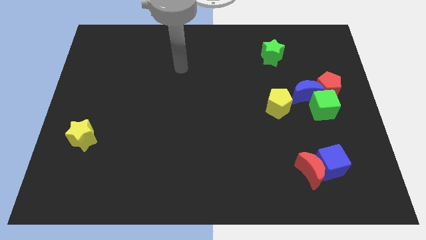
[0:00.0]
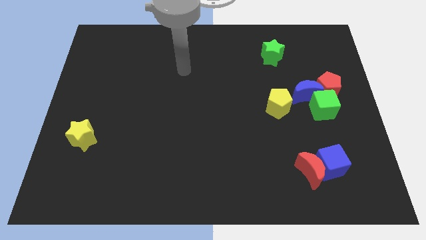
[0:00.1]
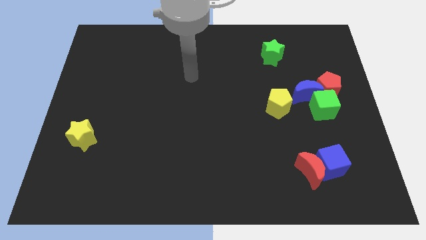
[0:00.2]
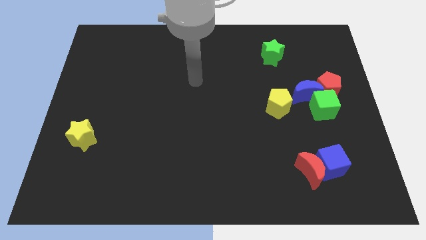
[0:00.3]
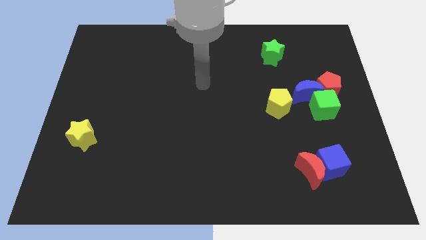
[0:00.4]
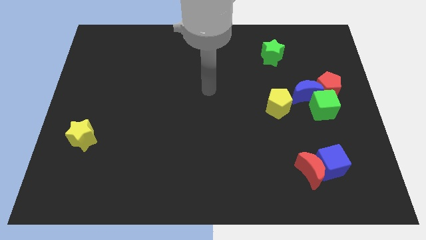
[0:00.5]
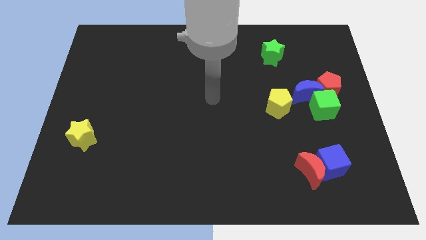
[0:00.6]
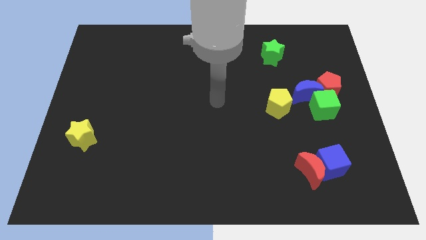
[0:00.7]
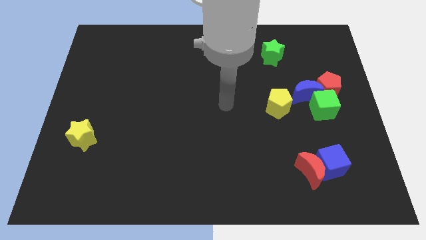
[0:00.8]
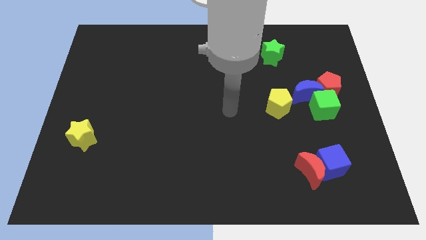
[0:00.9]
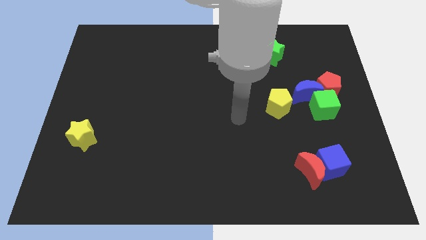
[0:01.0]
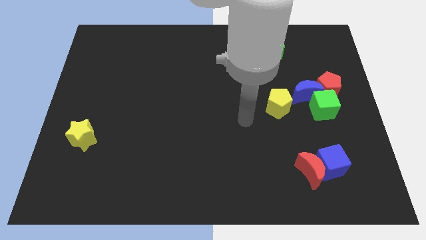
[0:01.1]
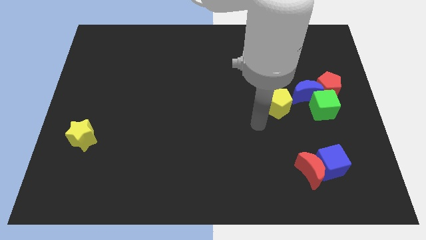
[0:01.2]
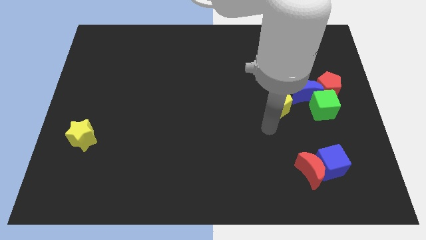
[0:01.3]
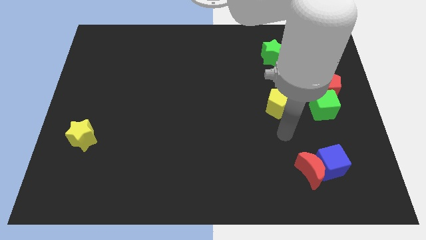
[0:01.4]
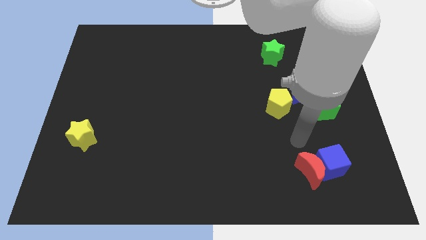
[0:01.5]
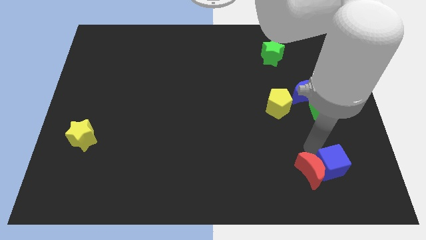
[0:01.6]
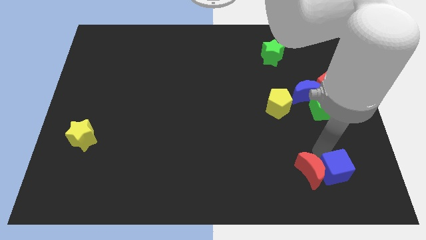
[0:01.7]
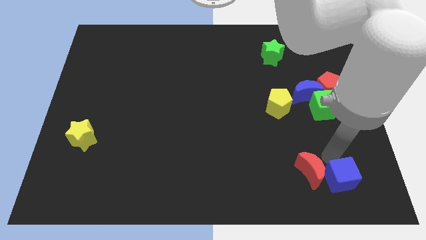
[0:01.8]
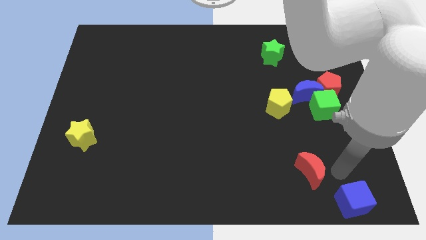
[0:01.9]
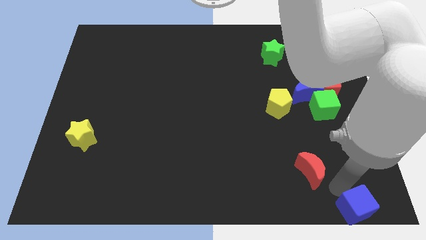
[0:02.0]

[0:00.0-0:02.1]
move the red moon away from the blue cube

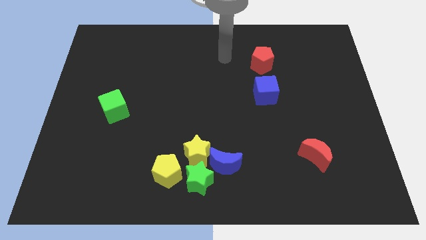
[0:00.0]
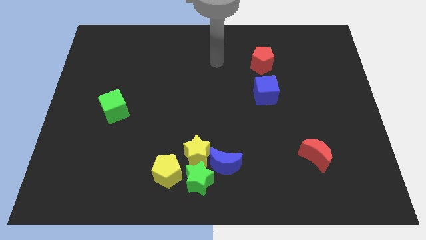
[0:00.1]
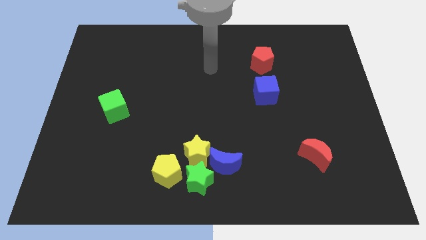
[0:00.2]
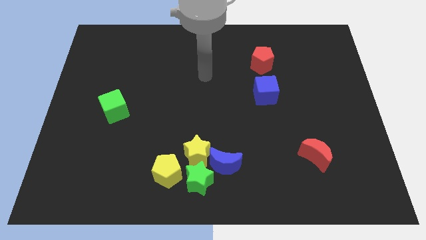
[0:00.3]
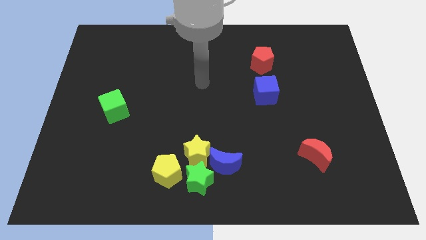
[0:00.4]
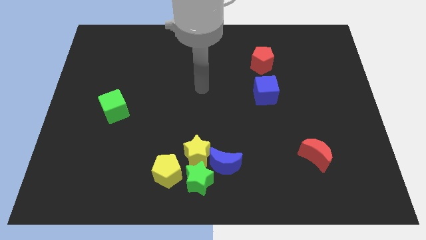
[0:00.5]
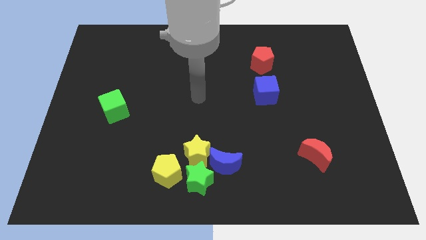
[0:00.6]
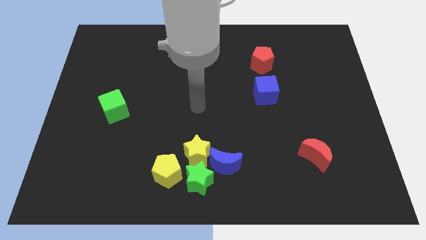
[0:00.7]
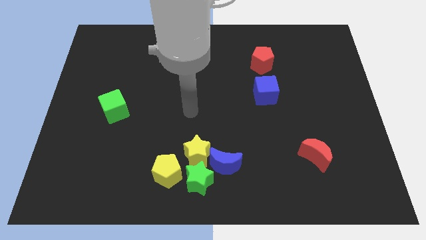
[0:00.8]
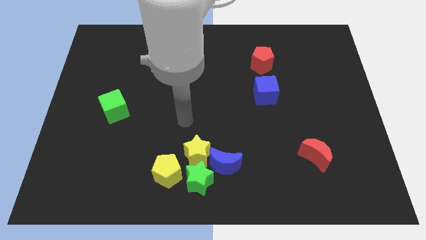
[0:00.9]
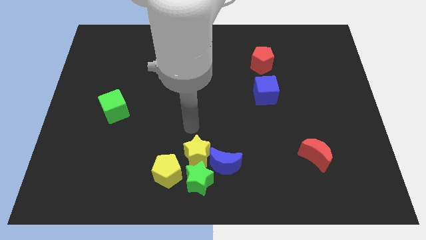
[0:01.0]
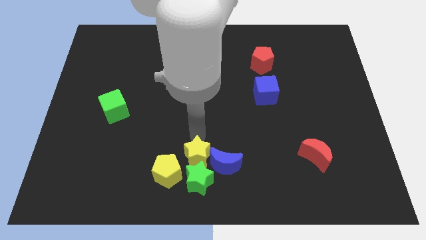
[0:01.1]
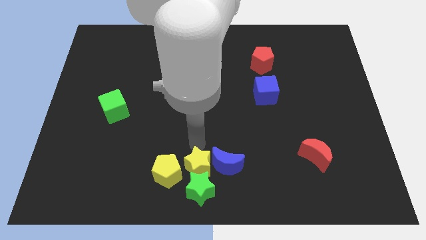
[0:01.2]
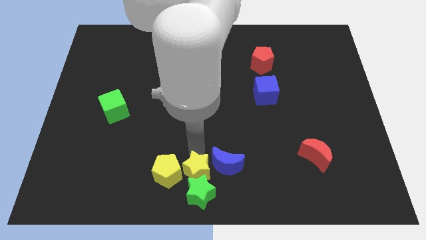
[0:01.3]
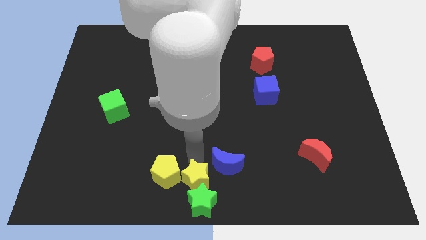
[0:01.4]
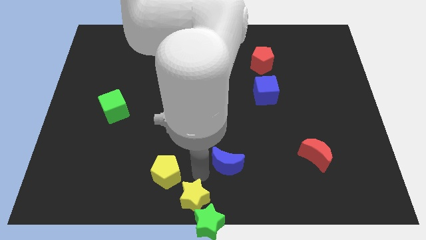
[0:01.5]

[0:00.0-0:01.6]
separate the blue moon from the yellow star and green star

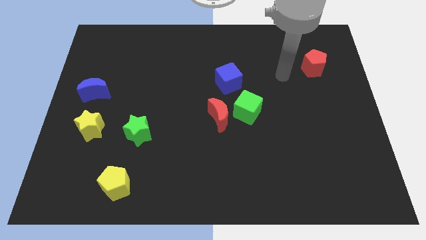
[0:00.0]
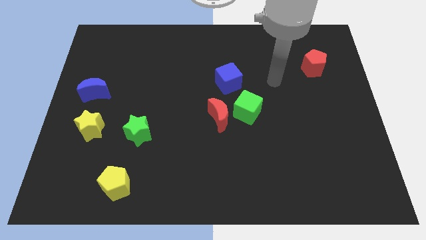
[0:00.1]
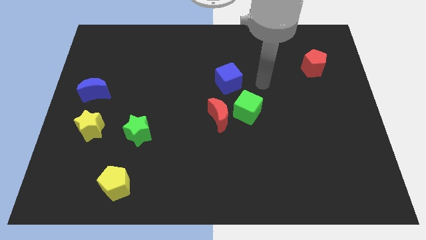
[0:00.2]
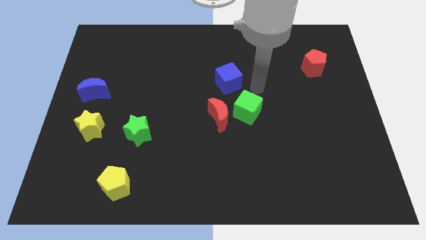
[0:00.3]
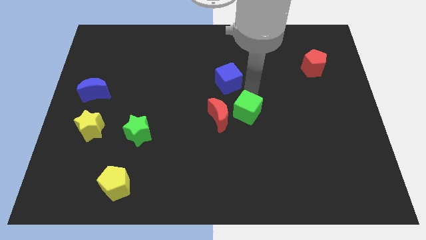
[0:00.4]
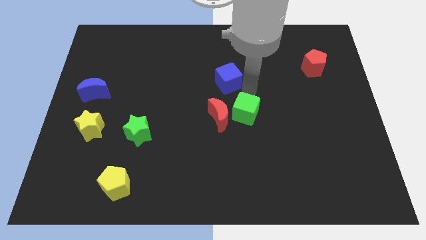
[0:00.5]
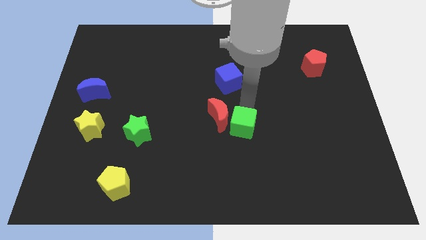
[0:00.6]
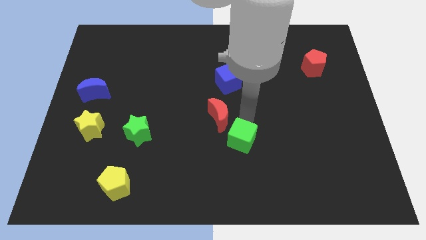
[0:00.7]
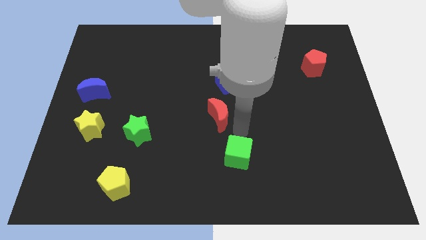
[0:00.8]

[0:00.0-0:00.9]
separate the red moon from the green cube

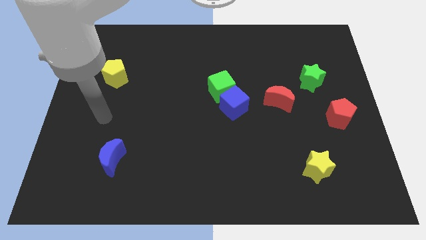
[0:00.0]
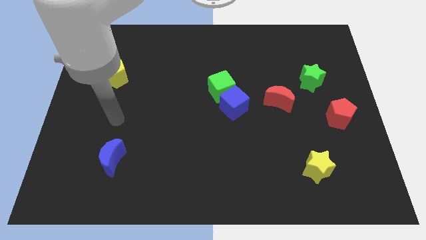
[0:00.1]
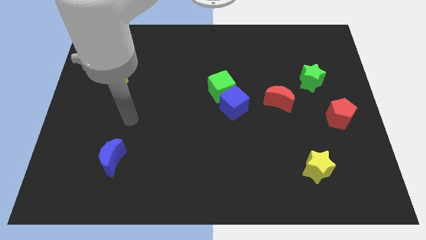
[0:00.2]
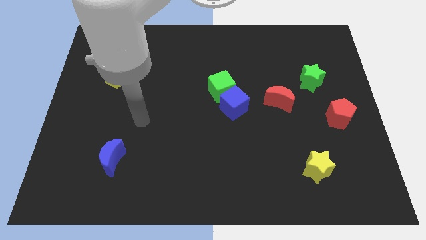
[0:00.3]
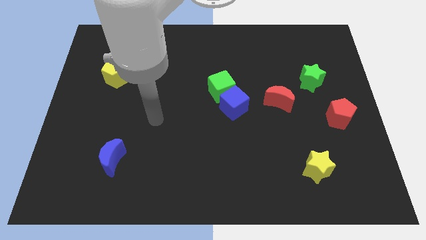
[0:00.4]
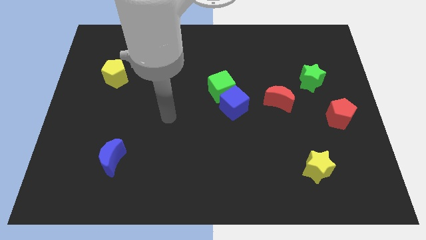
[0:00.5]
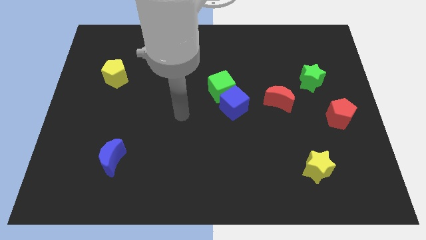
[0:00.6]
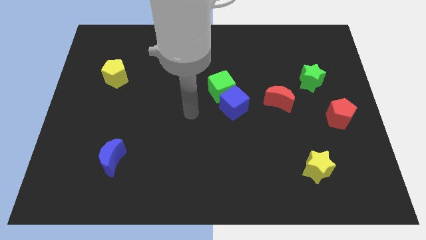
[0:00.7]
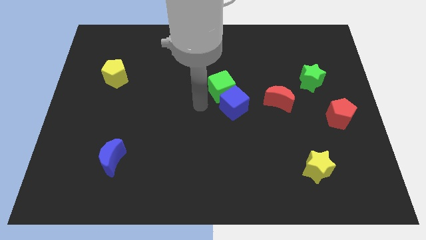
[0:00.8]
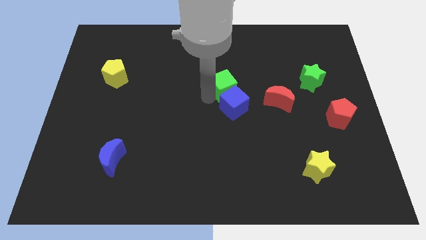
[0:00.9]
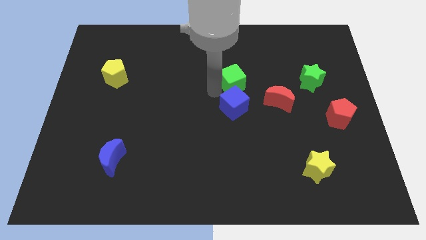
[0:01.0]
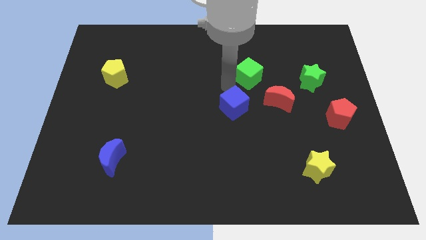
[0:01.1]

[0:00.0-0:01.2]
separate the blue cube from the green cube

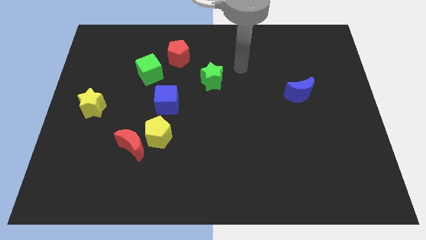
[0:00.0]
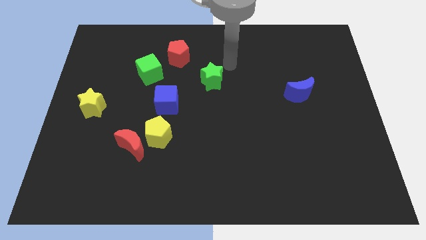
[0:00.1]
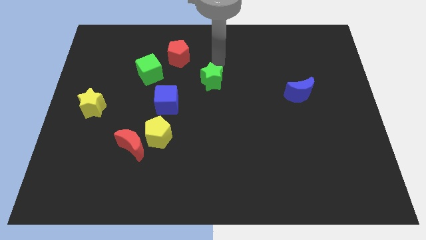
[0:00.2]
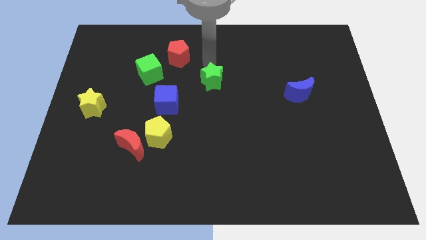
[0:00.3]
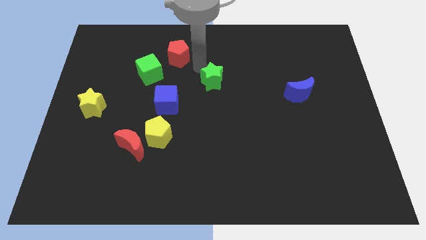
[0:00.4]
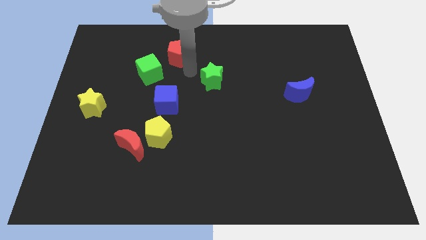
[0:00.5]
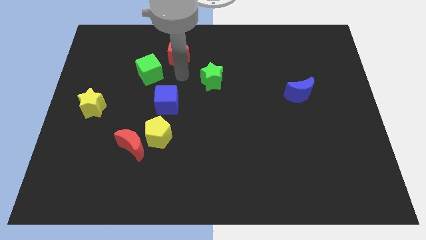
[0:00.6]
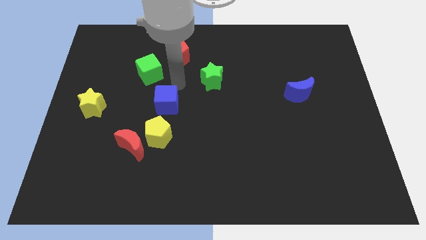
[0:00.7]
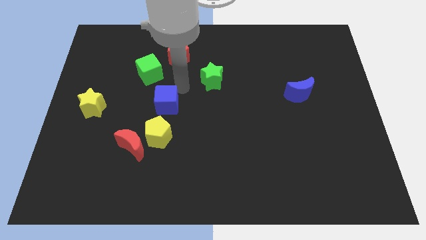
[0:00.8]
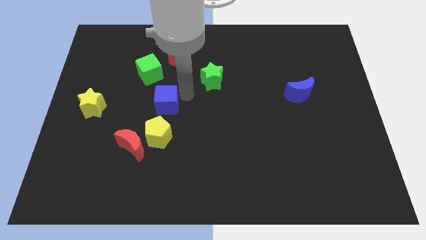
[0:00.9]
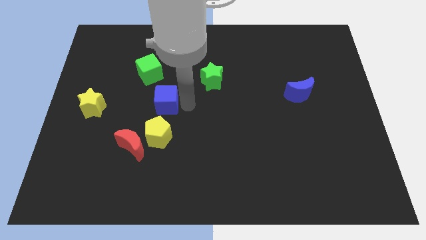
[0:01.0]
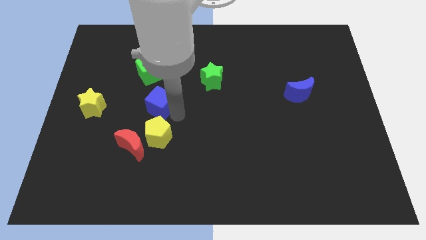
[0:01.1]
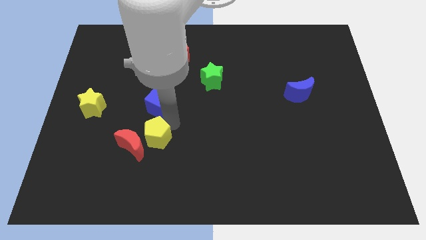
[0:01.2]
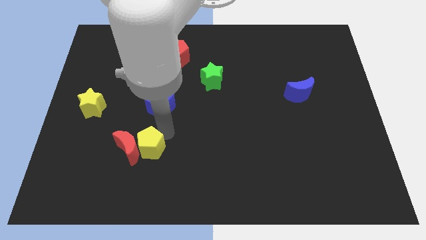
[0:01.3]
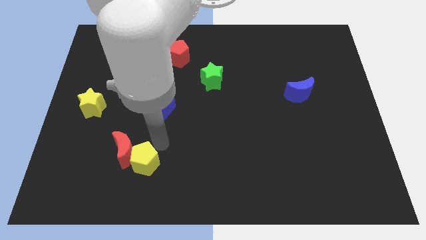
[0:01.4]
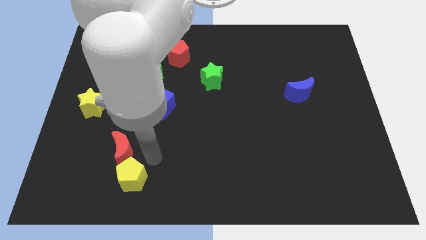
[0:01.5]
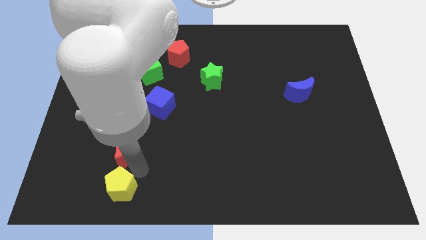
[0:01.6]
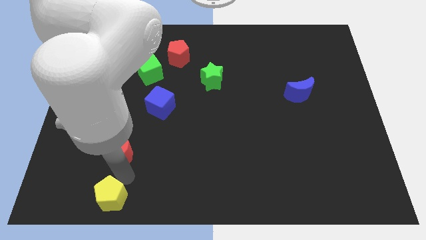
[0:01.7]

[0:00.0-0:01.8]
separate the red moon from the yellow pentagon

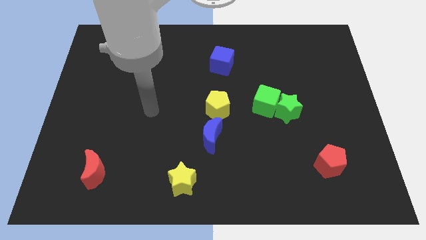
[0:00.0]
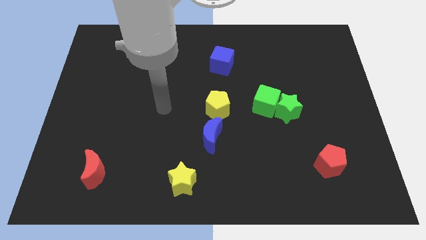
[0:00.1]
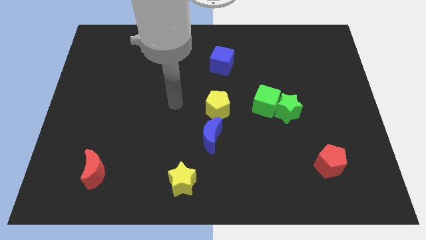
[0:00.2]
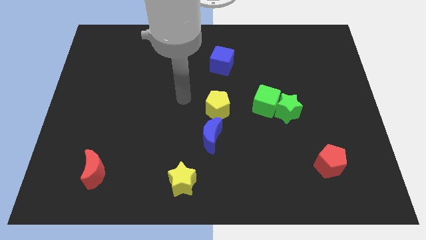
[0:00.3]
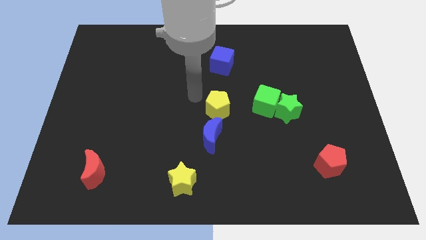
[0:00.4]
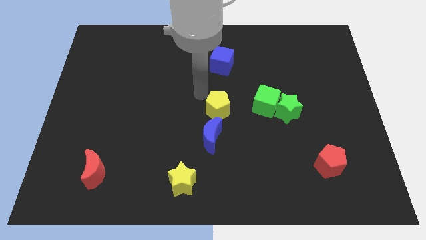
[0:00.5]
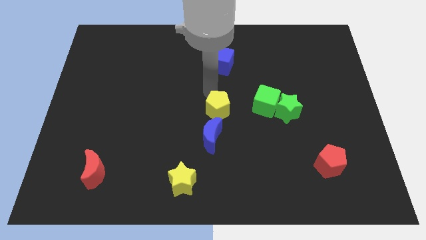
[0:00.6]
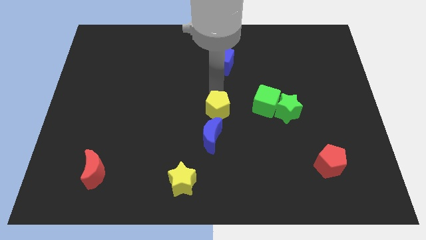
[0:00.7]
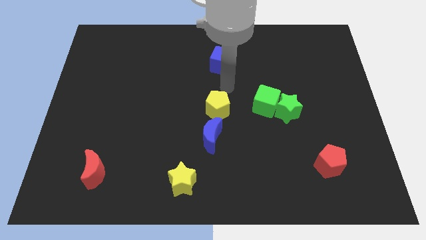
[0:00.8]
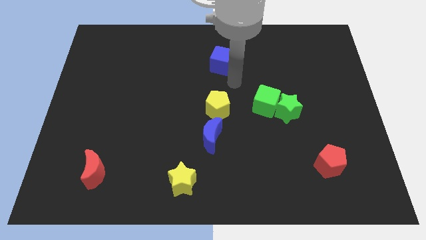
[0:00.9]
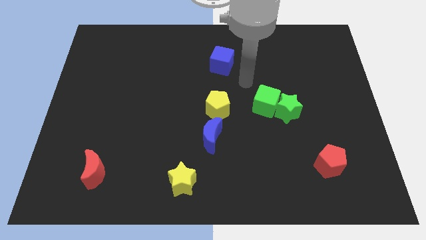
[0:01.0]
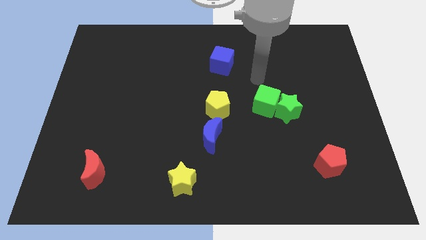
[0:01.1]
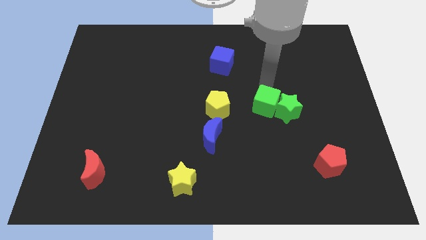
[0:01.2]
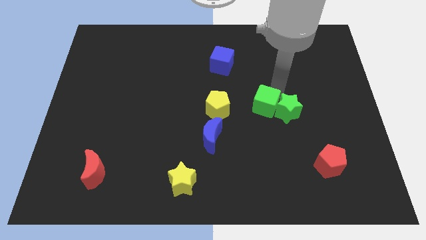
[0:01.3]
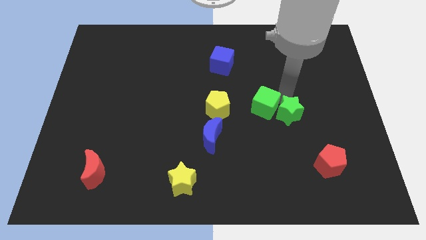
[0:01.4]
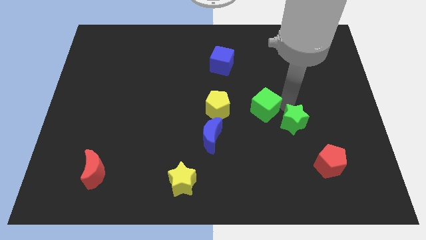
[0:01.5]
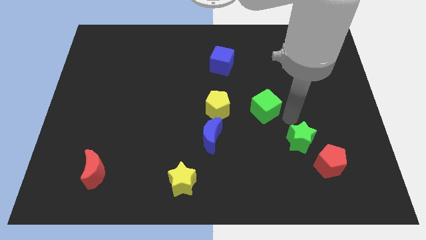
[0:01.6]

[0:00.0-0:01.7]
pull the green cube apart from the green star
